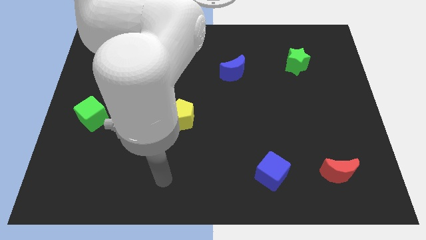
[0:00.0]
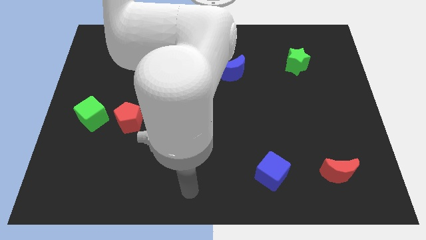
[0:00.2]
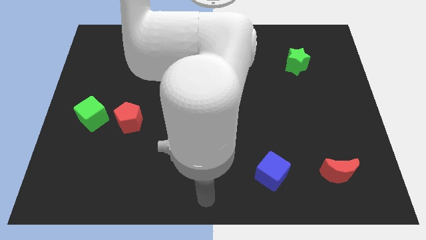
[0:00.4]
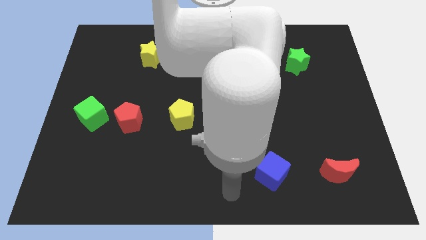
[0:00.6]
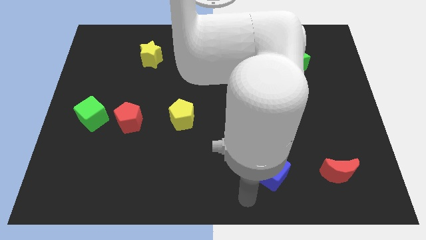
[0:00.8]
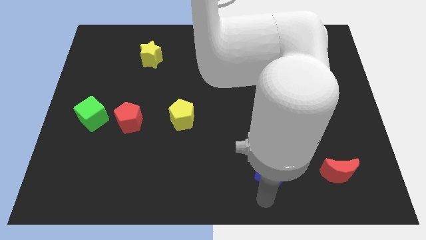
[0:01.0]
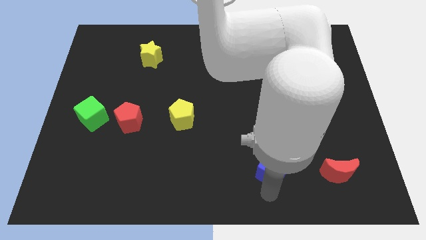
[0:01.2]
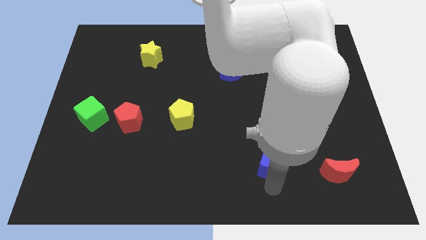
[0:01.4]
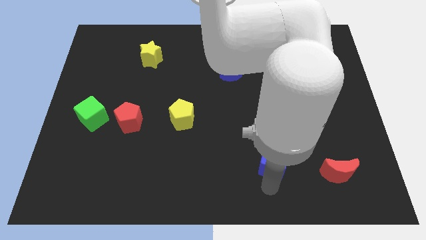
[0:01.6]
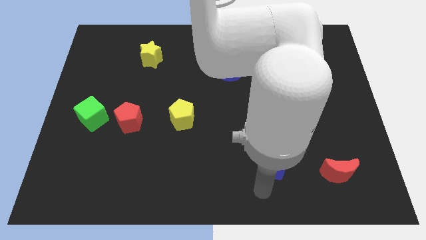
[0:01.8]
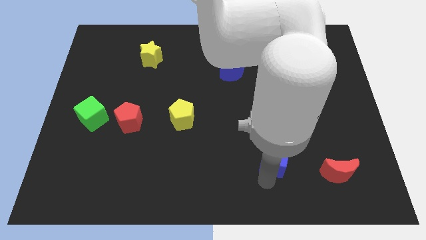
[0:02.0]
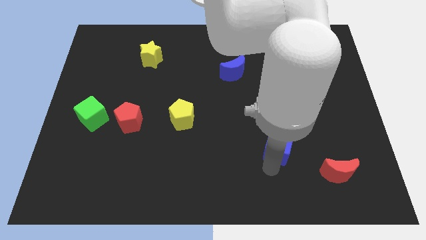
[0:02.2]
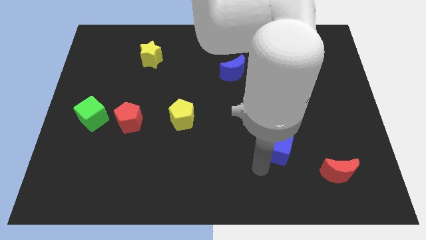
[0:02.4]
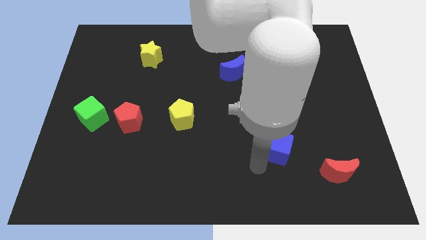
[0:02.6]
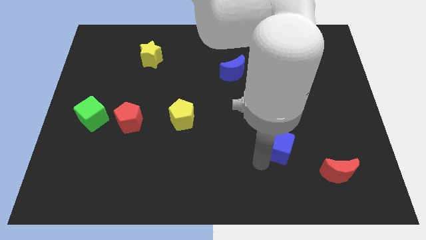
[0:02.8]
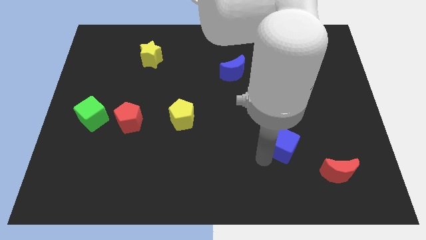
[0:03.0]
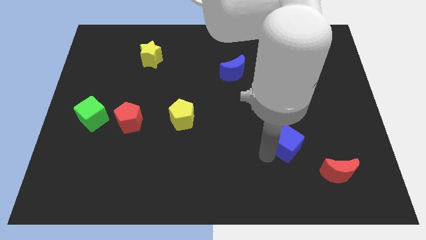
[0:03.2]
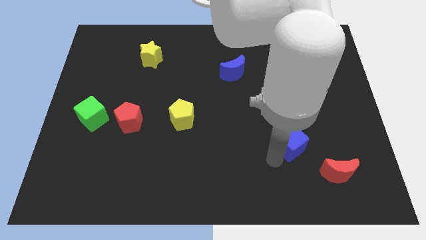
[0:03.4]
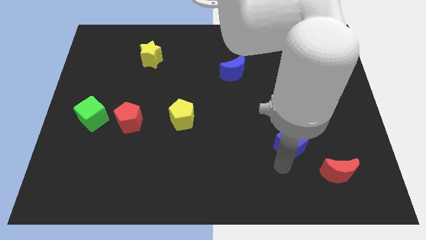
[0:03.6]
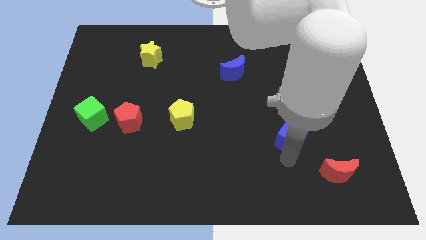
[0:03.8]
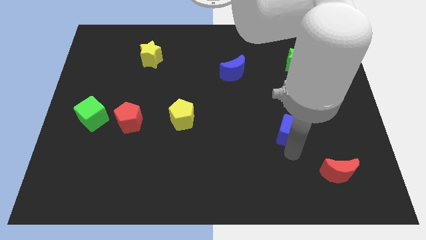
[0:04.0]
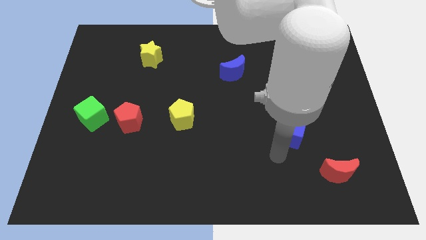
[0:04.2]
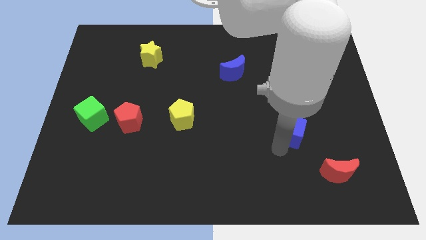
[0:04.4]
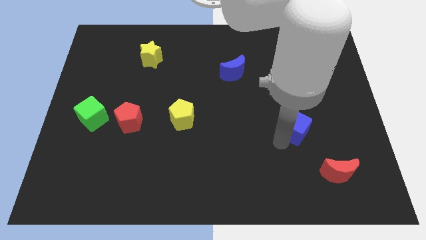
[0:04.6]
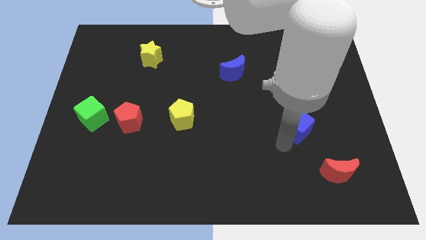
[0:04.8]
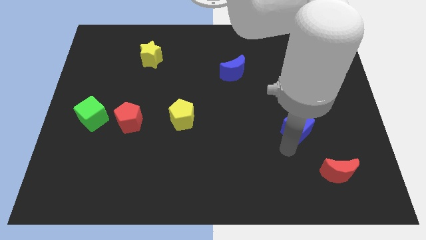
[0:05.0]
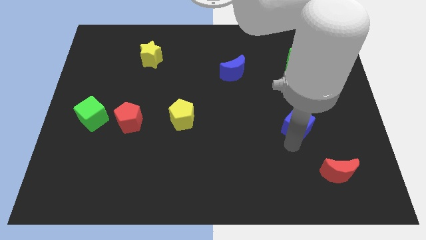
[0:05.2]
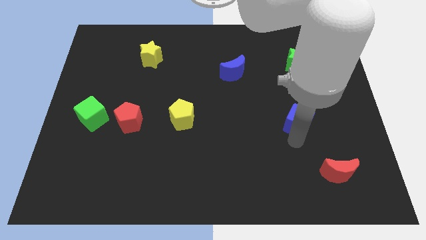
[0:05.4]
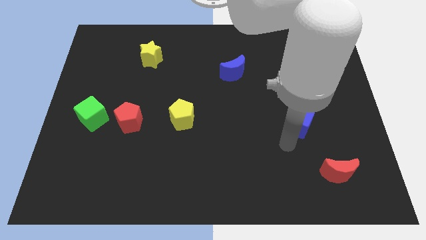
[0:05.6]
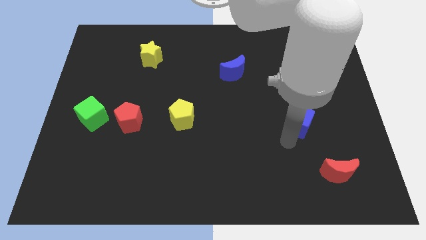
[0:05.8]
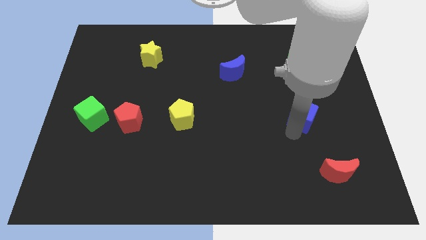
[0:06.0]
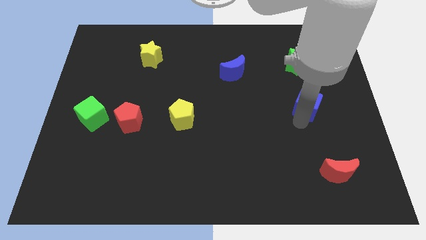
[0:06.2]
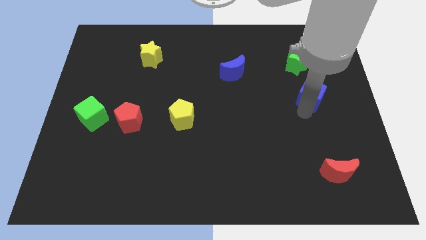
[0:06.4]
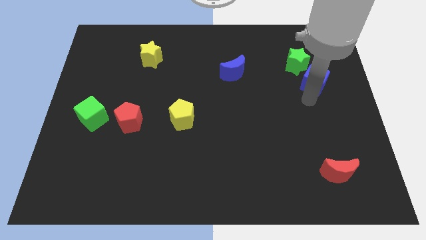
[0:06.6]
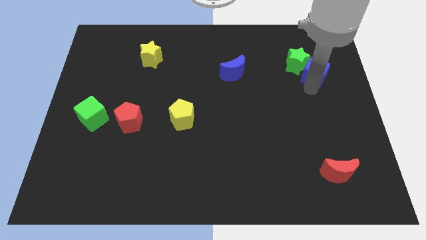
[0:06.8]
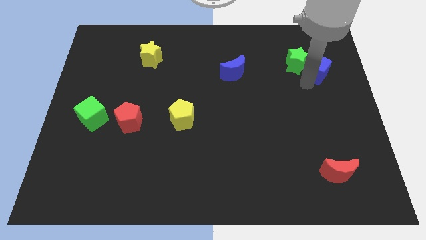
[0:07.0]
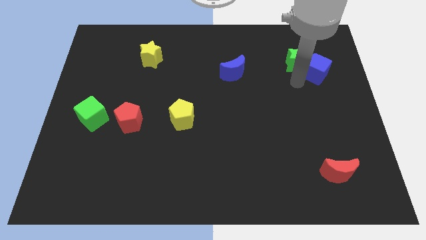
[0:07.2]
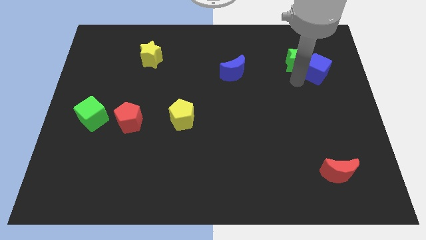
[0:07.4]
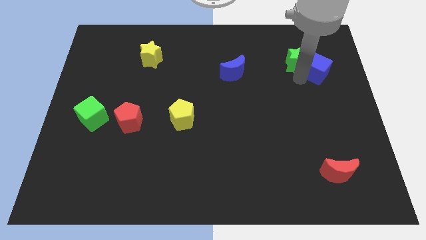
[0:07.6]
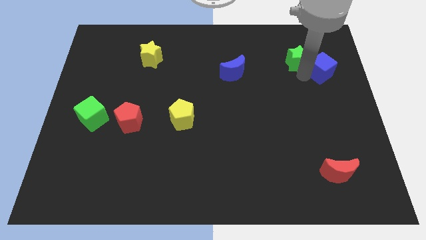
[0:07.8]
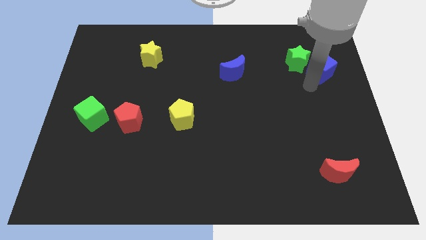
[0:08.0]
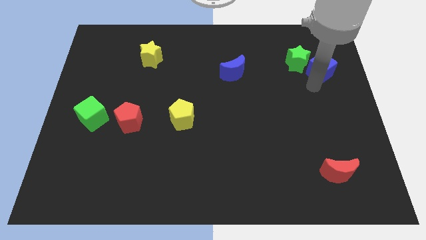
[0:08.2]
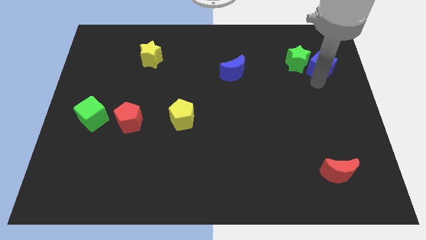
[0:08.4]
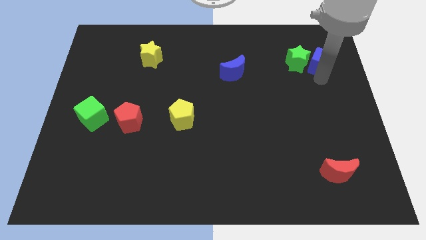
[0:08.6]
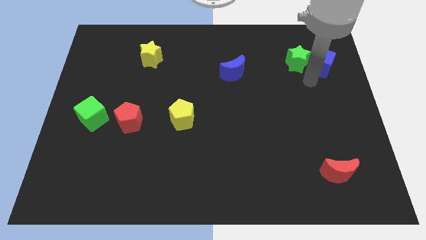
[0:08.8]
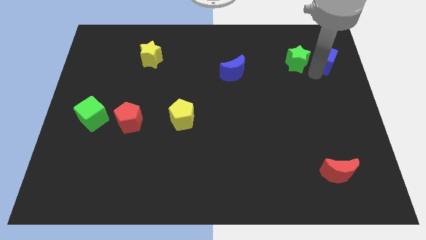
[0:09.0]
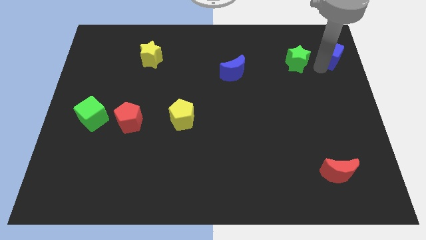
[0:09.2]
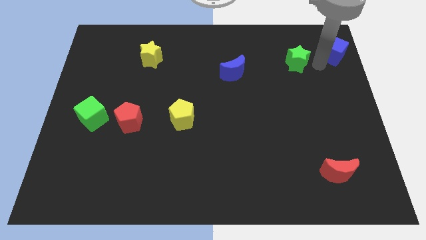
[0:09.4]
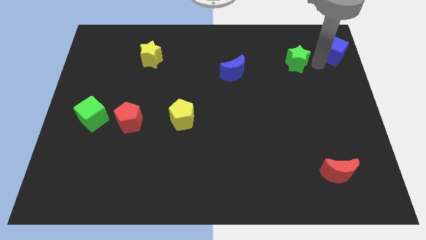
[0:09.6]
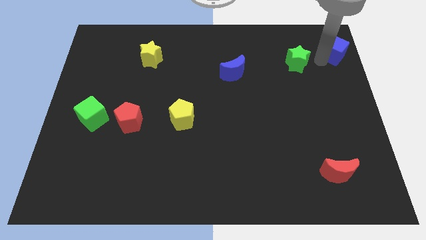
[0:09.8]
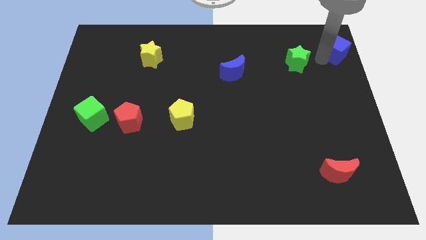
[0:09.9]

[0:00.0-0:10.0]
slide the blue cube to the top right

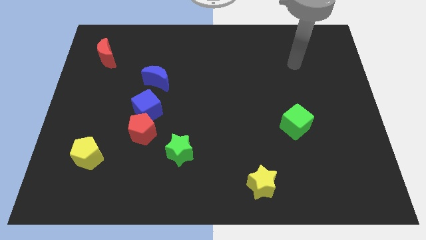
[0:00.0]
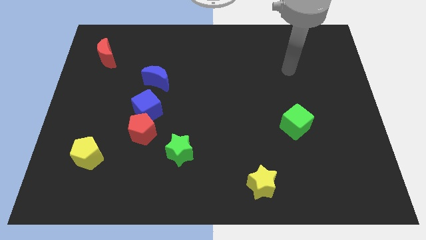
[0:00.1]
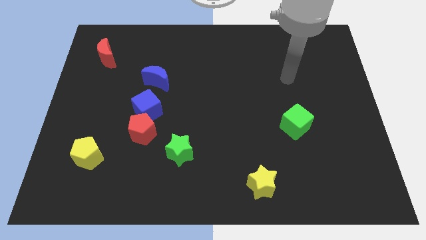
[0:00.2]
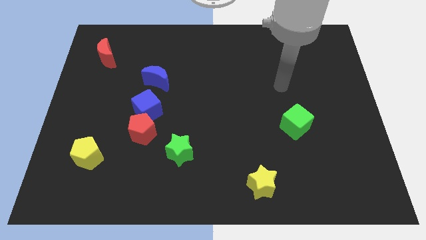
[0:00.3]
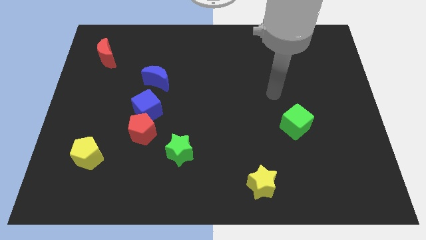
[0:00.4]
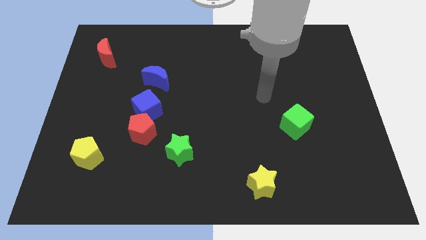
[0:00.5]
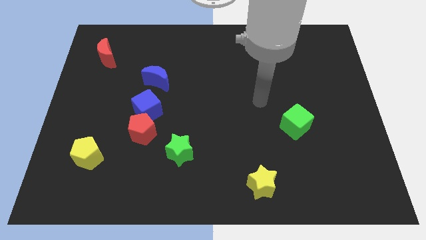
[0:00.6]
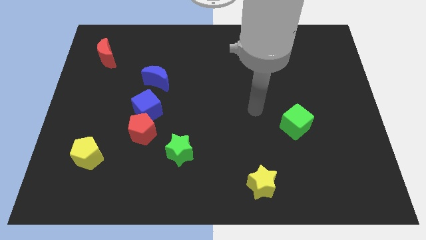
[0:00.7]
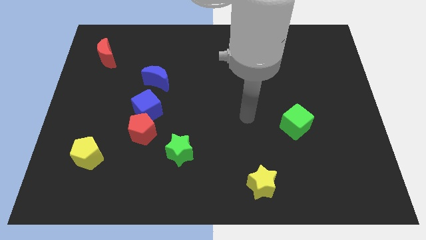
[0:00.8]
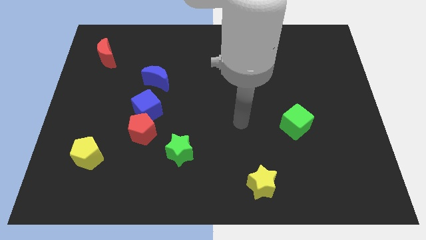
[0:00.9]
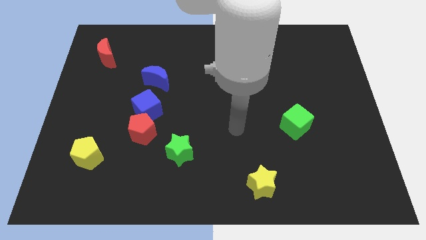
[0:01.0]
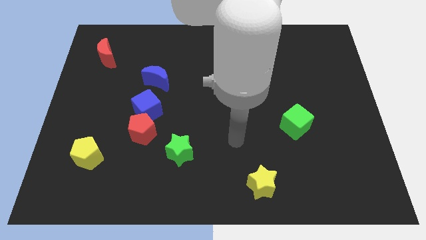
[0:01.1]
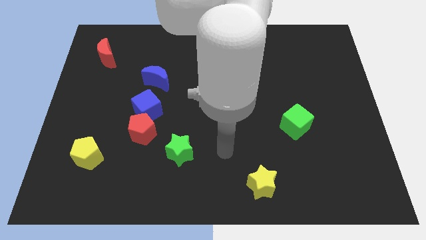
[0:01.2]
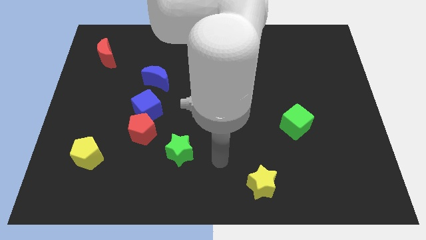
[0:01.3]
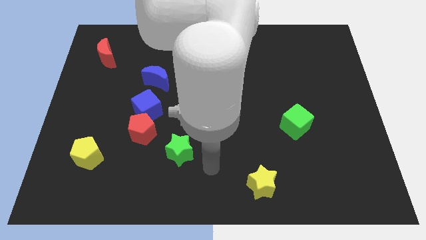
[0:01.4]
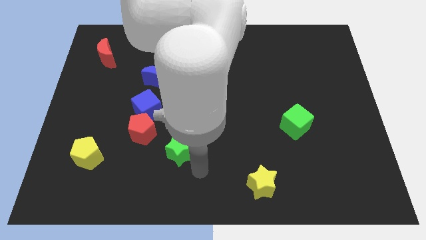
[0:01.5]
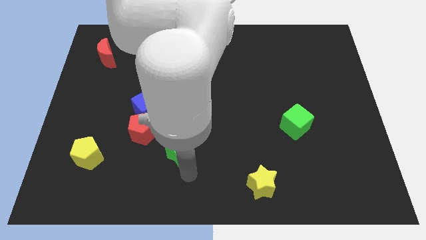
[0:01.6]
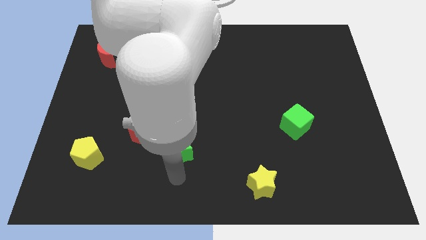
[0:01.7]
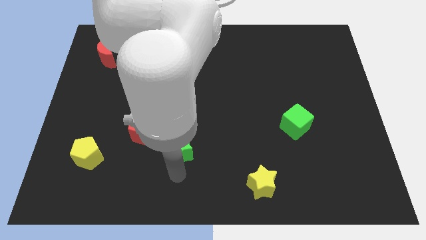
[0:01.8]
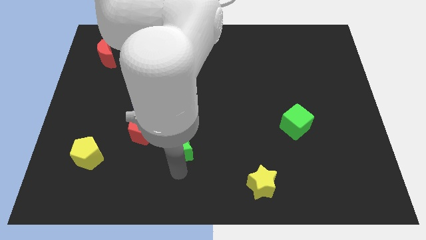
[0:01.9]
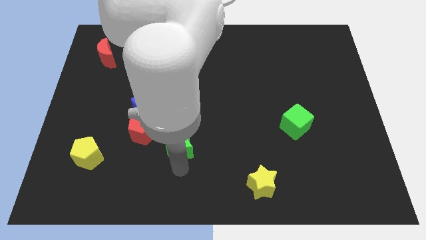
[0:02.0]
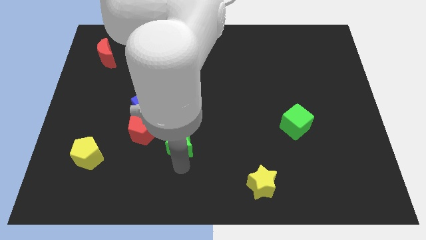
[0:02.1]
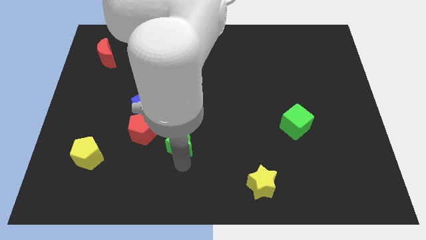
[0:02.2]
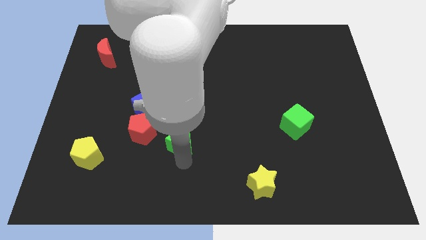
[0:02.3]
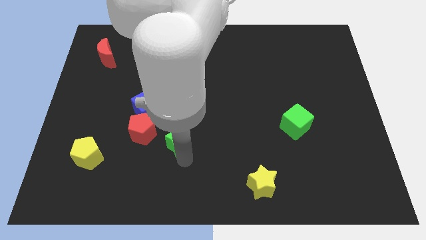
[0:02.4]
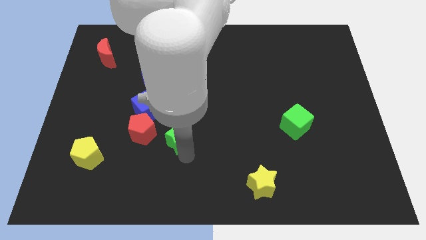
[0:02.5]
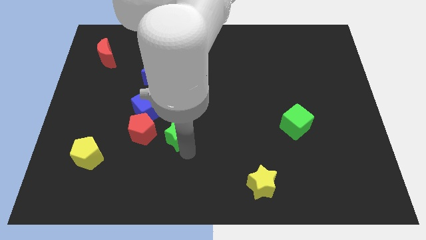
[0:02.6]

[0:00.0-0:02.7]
put the green star to the middle
